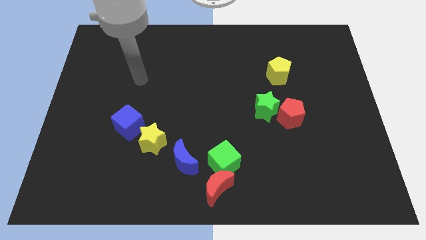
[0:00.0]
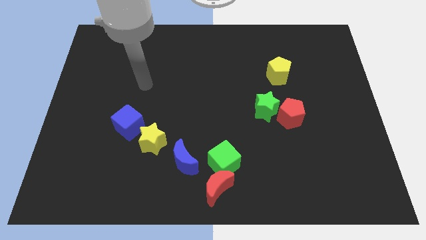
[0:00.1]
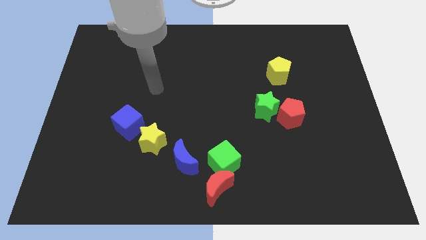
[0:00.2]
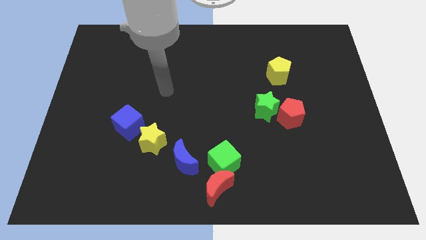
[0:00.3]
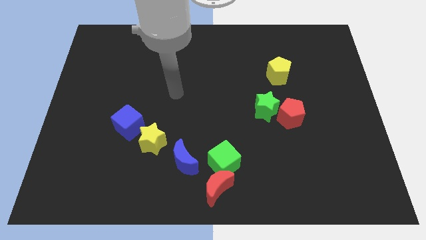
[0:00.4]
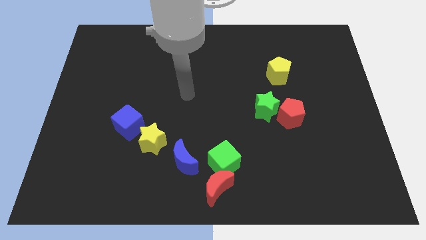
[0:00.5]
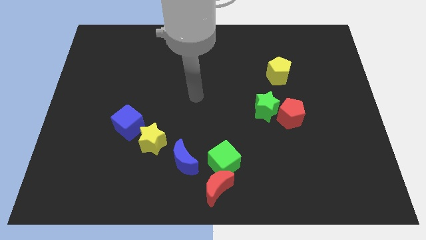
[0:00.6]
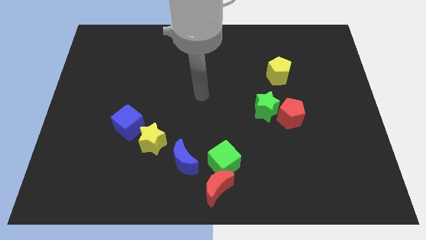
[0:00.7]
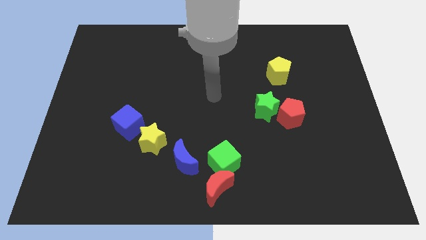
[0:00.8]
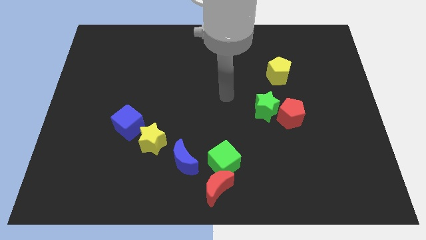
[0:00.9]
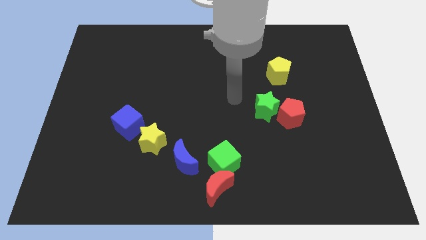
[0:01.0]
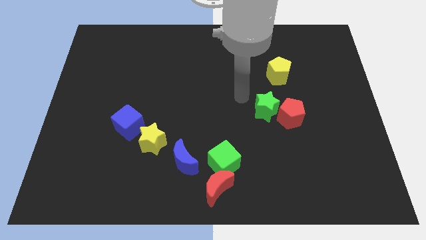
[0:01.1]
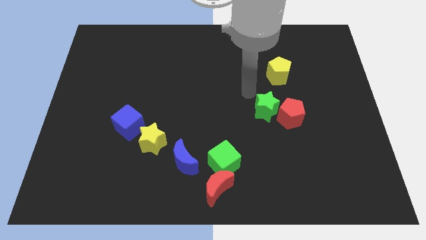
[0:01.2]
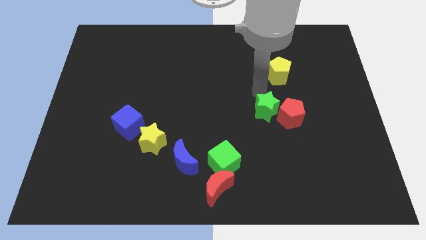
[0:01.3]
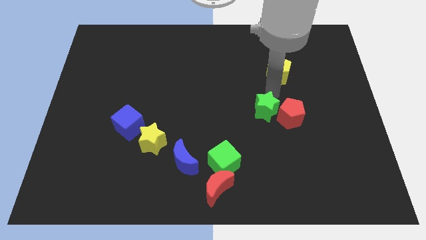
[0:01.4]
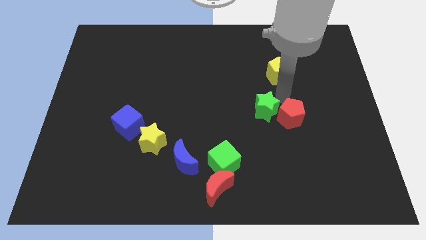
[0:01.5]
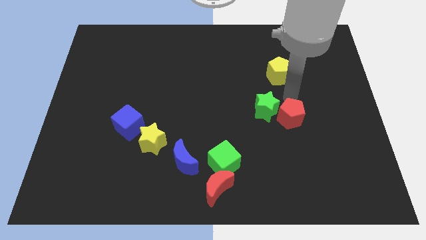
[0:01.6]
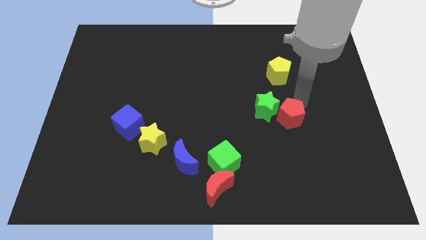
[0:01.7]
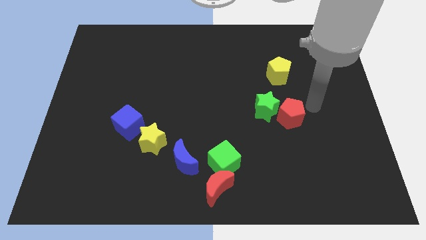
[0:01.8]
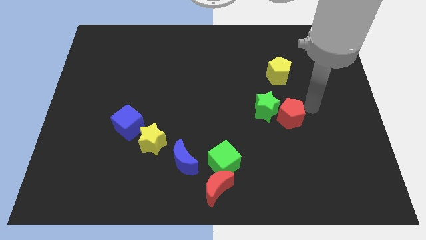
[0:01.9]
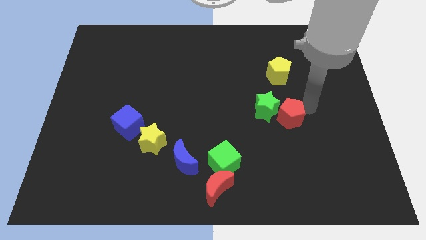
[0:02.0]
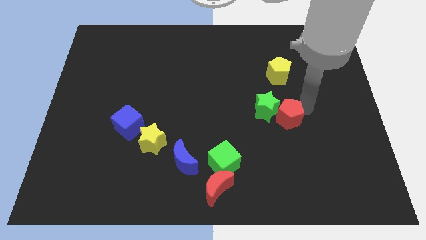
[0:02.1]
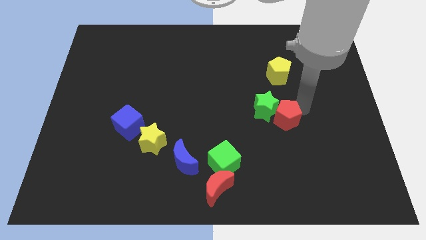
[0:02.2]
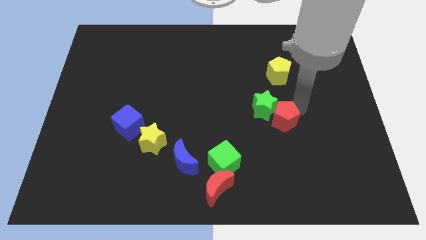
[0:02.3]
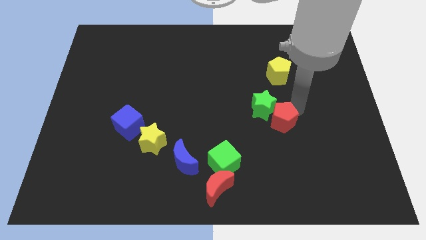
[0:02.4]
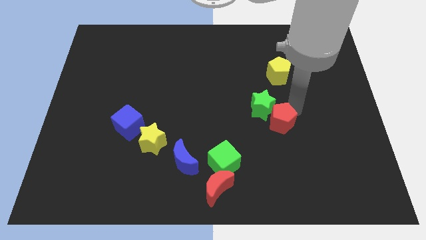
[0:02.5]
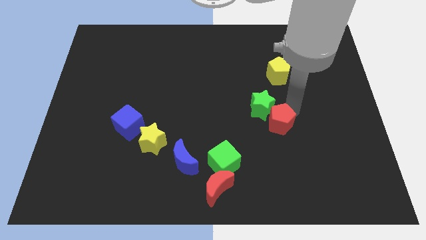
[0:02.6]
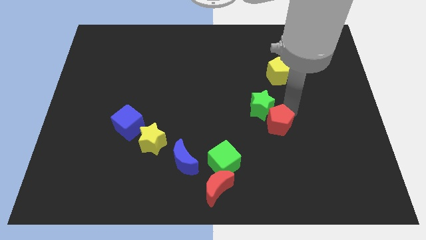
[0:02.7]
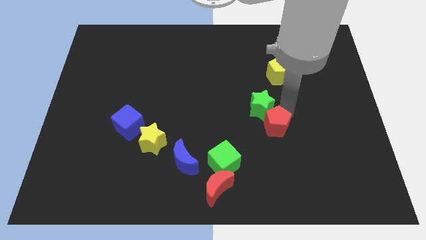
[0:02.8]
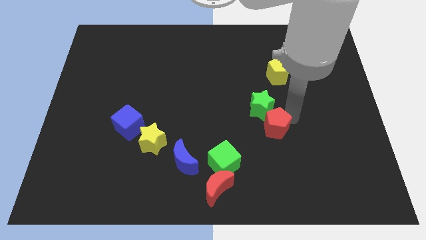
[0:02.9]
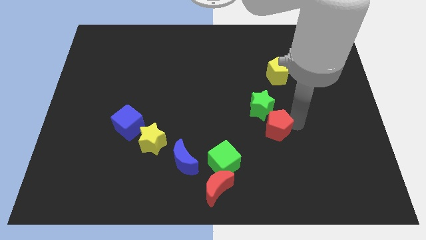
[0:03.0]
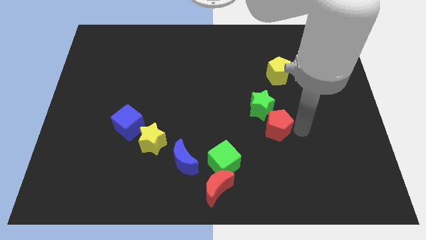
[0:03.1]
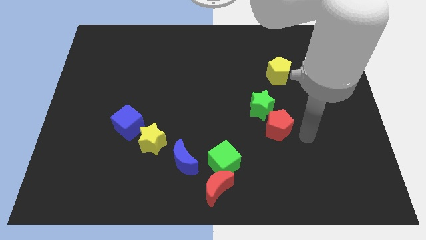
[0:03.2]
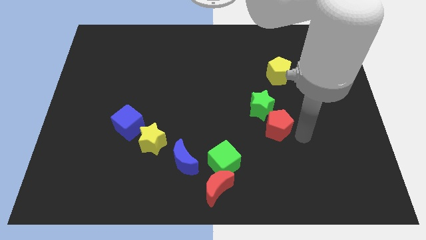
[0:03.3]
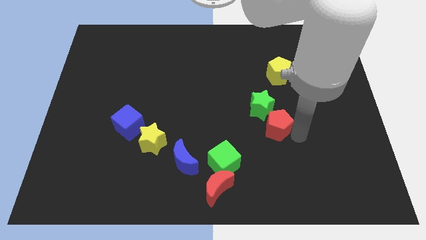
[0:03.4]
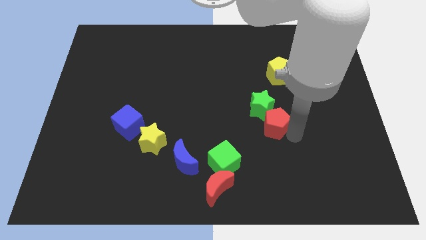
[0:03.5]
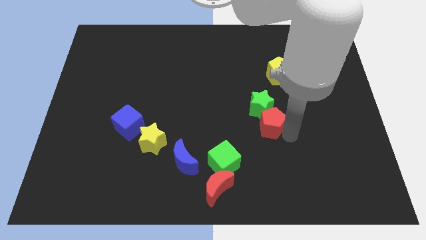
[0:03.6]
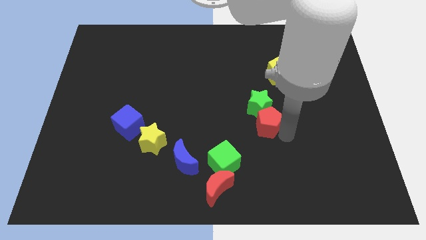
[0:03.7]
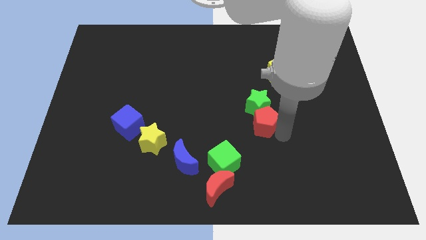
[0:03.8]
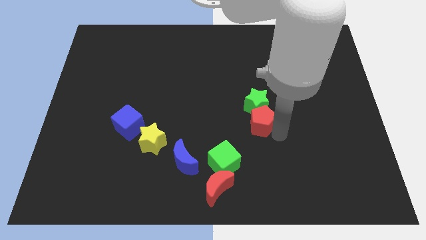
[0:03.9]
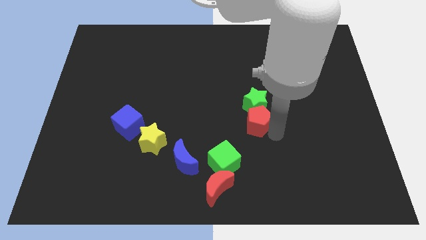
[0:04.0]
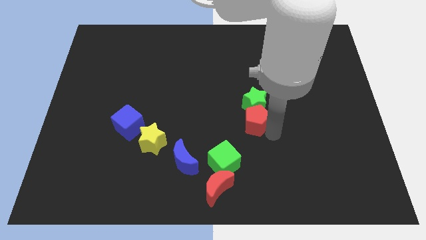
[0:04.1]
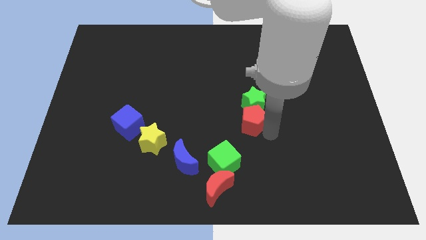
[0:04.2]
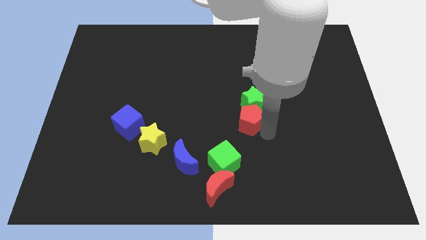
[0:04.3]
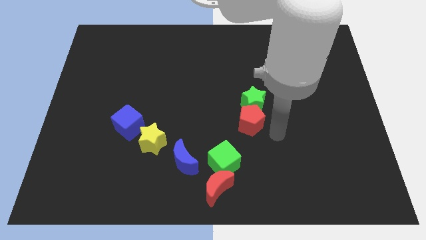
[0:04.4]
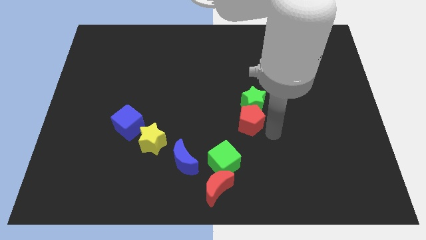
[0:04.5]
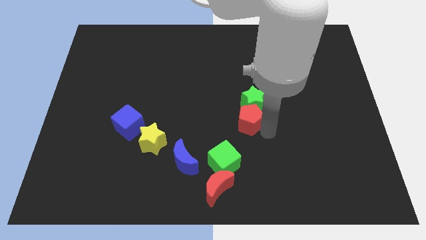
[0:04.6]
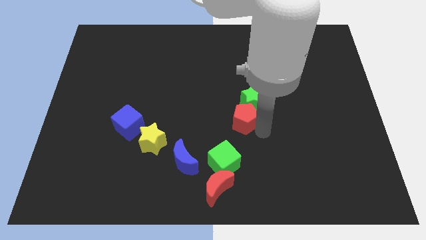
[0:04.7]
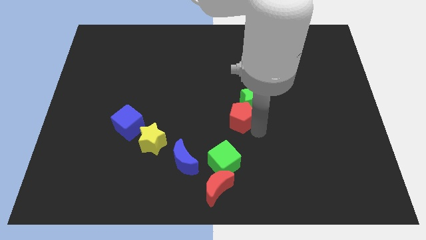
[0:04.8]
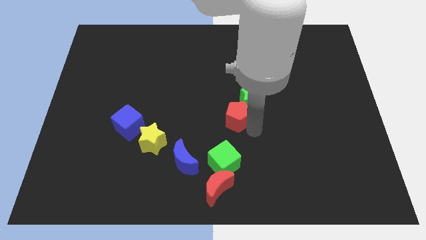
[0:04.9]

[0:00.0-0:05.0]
push the red pentagon just left of the green star

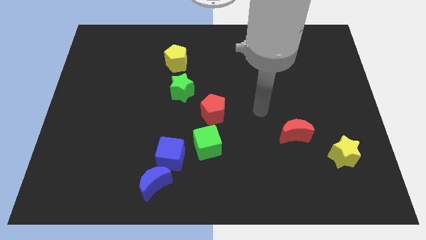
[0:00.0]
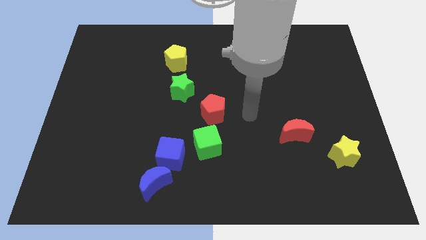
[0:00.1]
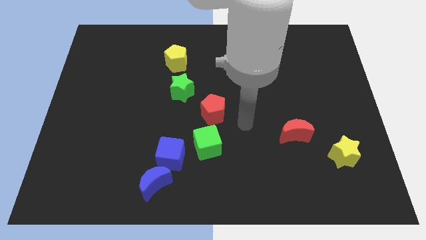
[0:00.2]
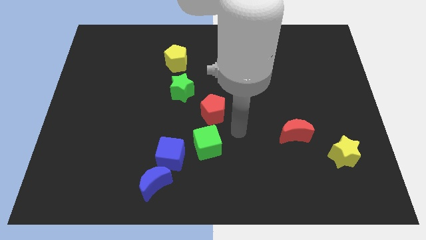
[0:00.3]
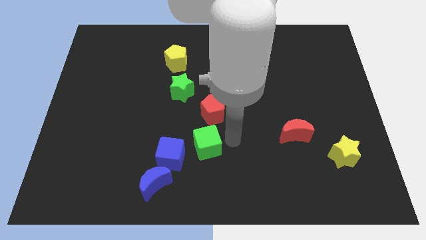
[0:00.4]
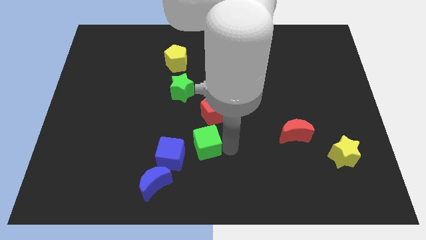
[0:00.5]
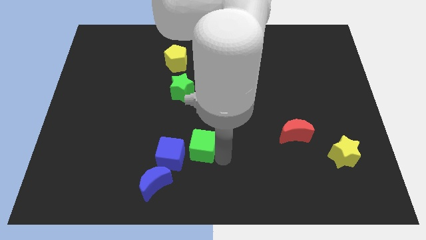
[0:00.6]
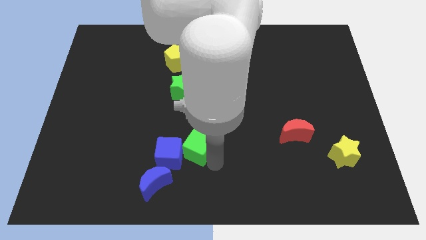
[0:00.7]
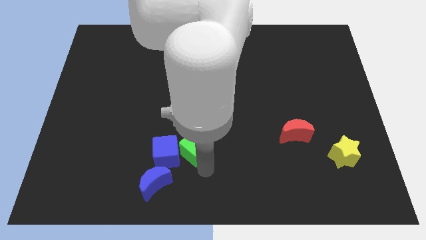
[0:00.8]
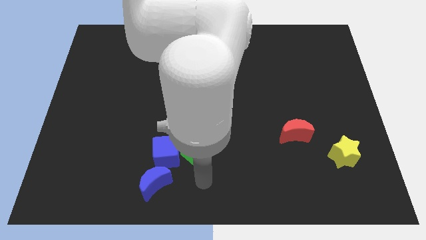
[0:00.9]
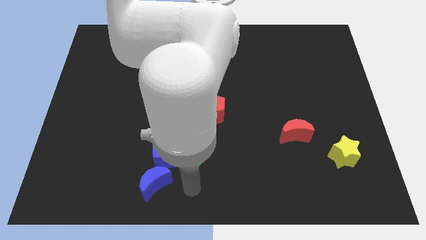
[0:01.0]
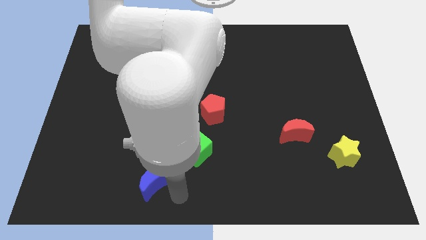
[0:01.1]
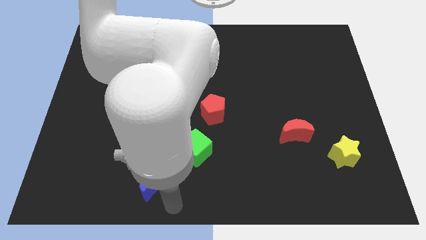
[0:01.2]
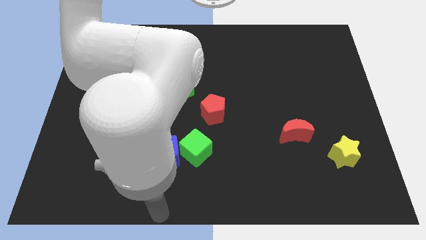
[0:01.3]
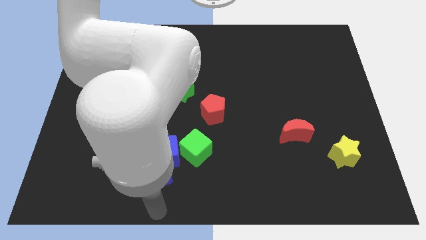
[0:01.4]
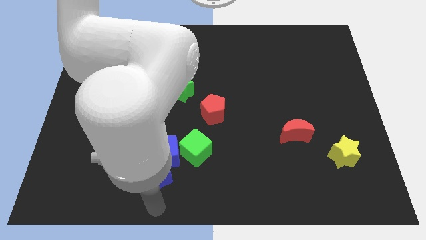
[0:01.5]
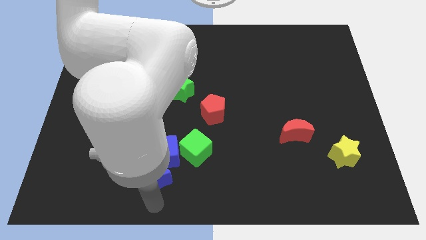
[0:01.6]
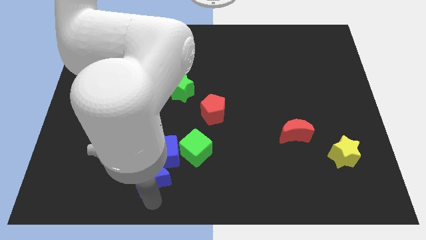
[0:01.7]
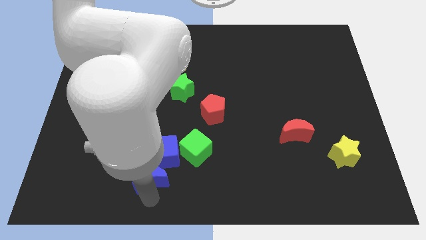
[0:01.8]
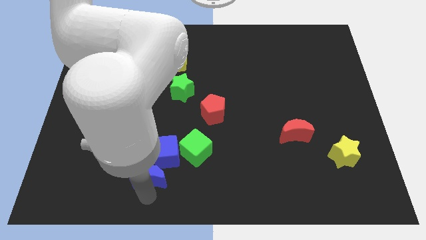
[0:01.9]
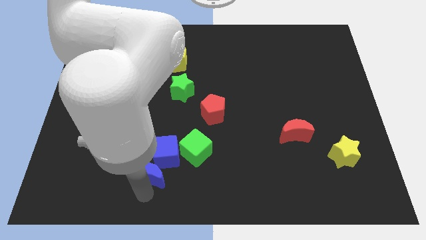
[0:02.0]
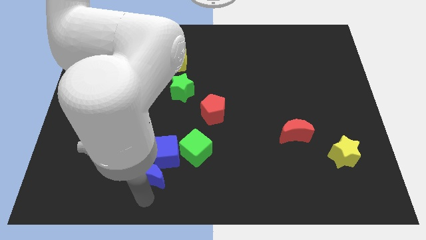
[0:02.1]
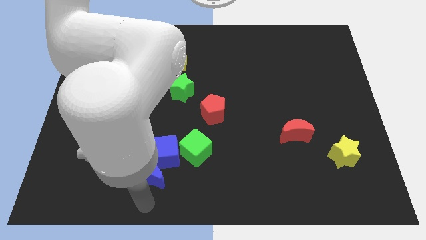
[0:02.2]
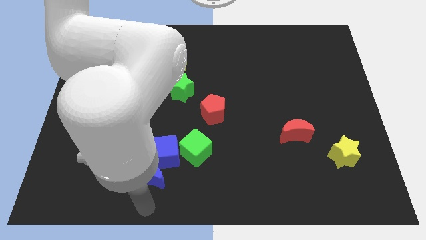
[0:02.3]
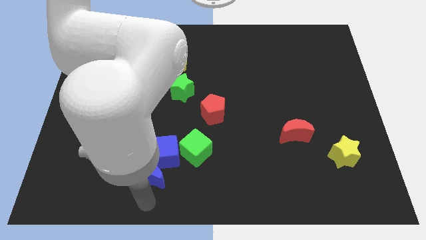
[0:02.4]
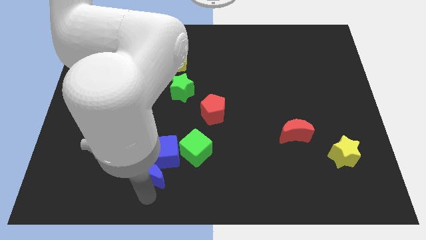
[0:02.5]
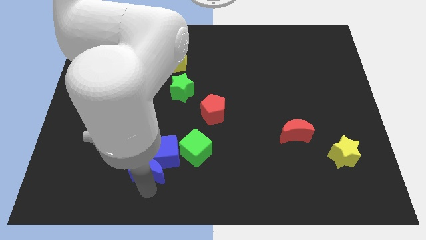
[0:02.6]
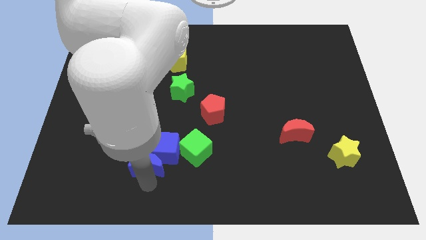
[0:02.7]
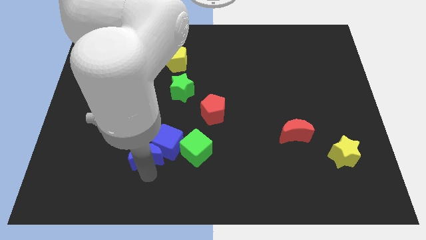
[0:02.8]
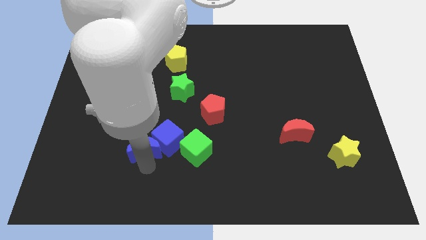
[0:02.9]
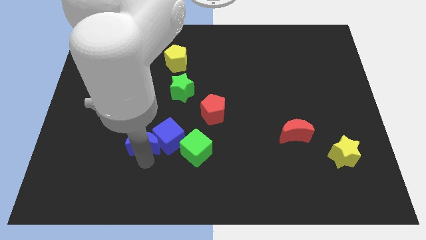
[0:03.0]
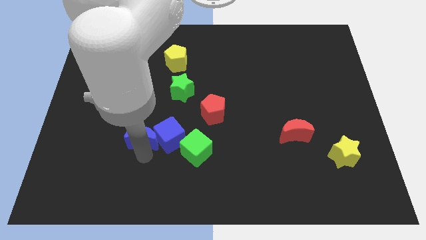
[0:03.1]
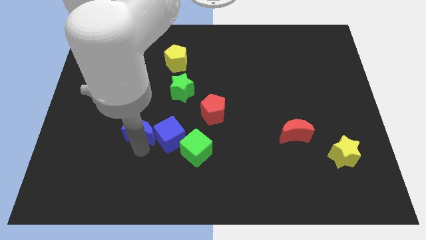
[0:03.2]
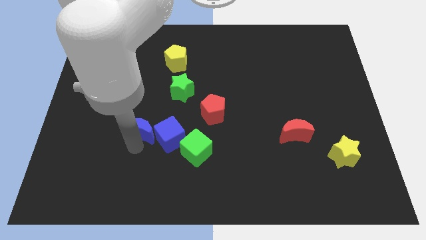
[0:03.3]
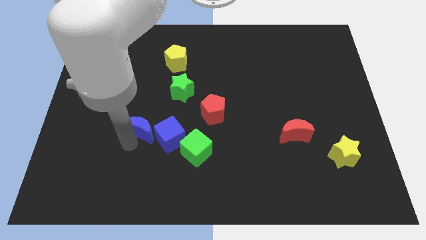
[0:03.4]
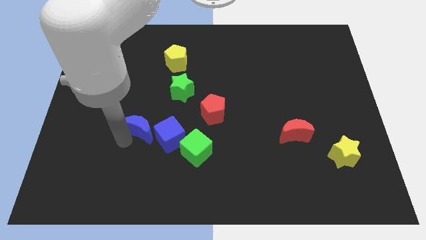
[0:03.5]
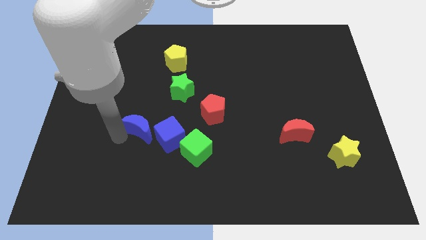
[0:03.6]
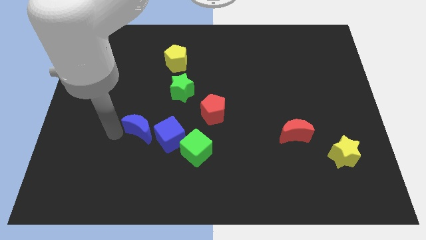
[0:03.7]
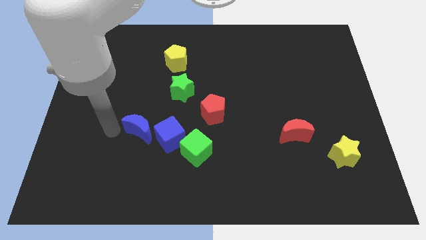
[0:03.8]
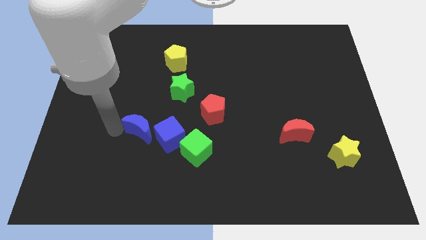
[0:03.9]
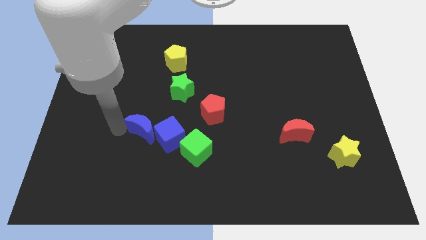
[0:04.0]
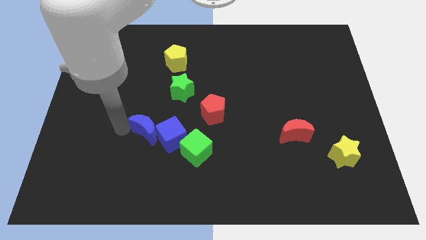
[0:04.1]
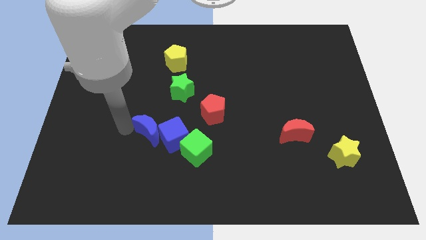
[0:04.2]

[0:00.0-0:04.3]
push the blue moon diagonally up and to the left of the green cube
